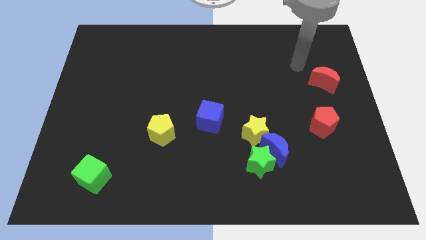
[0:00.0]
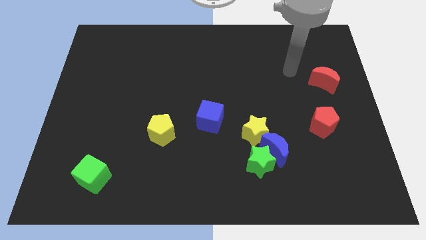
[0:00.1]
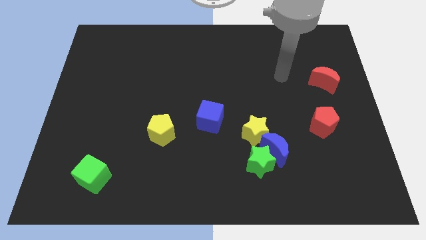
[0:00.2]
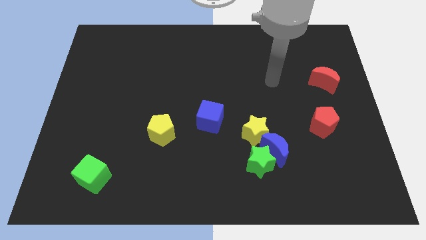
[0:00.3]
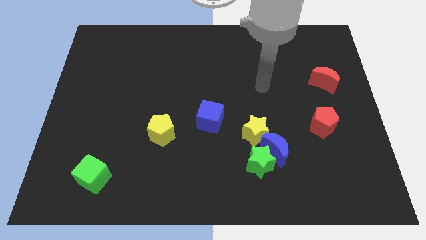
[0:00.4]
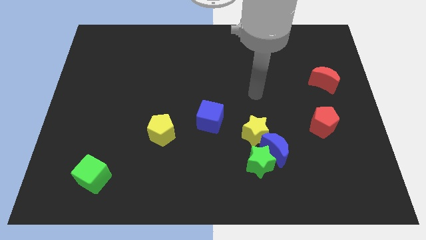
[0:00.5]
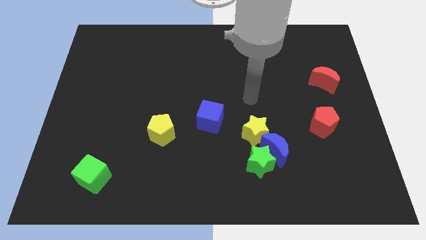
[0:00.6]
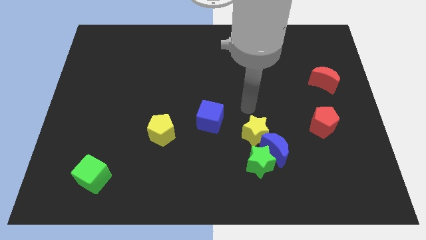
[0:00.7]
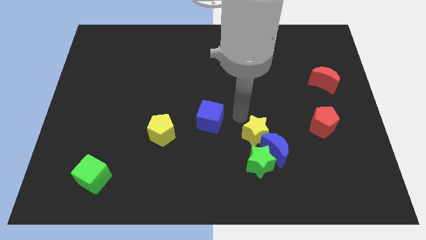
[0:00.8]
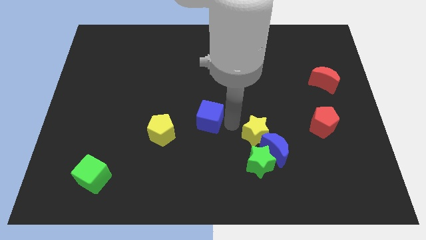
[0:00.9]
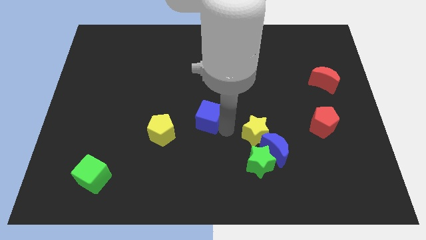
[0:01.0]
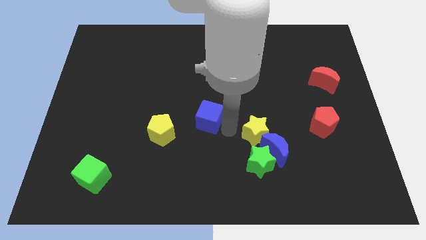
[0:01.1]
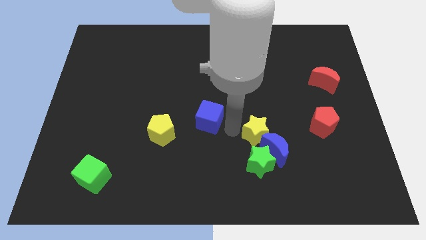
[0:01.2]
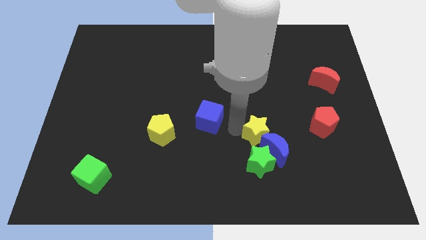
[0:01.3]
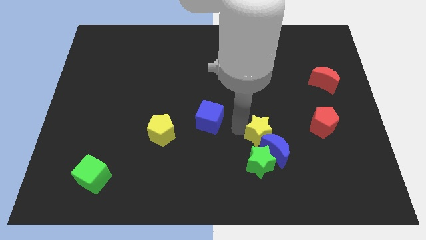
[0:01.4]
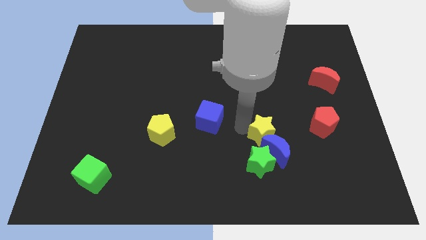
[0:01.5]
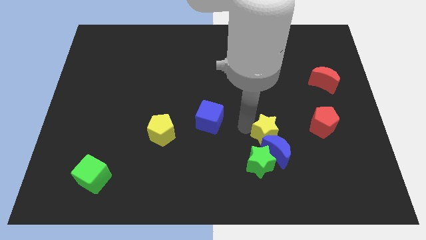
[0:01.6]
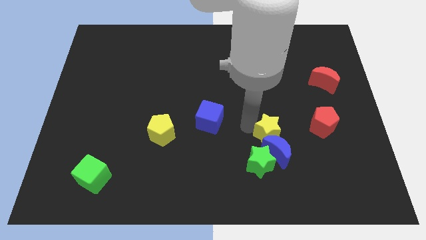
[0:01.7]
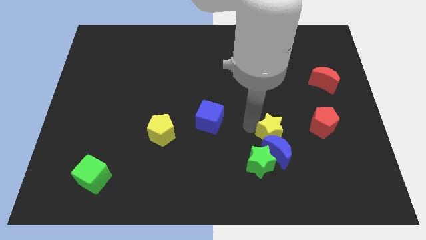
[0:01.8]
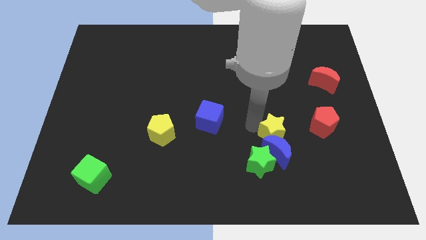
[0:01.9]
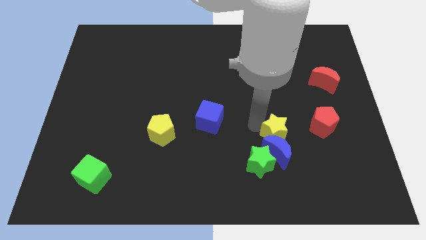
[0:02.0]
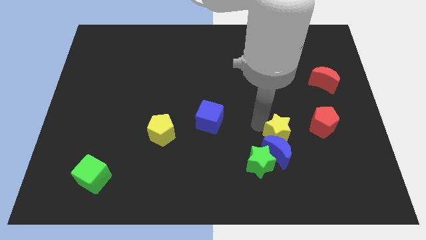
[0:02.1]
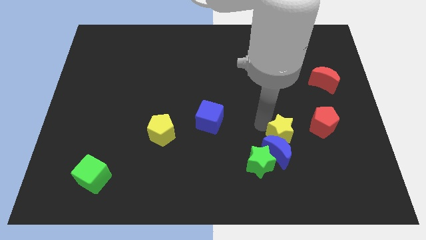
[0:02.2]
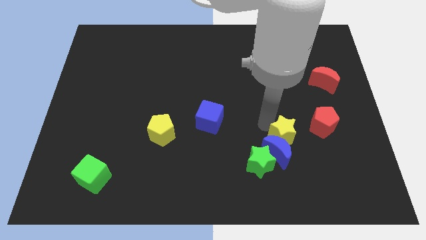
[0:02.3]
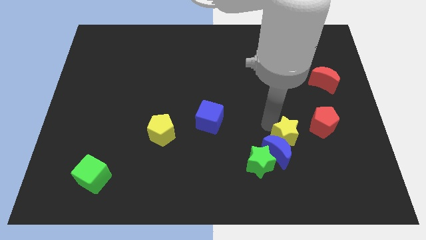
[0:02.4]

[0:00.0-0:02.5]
push the yellow star to the right a bit

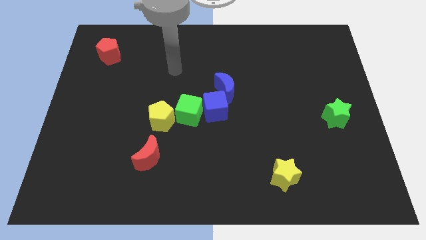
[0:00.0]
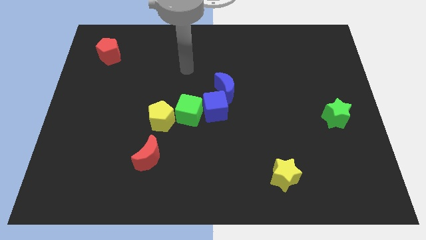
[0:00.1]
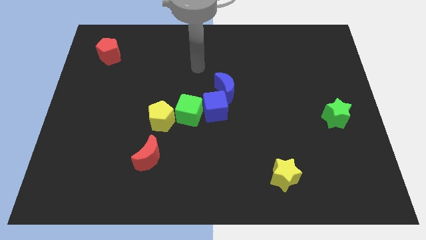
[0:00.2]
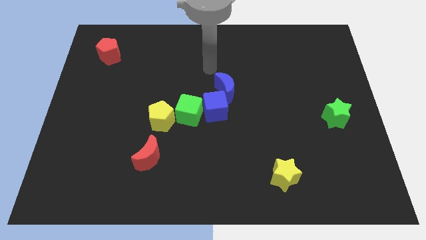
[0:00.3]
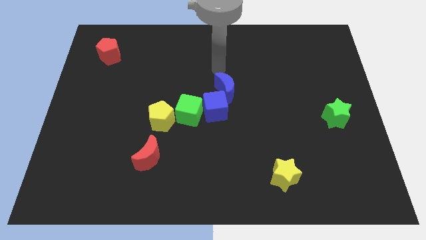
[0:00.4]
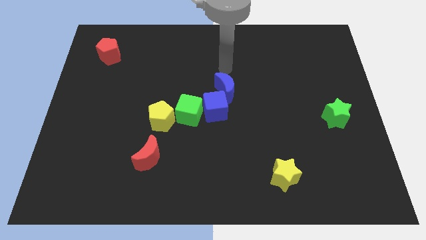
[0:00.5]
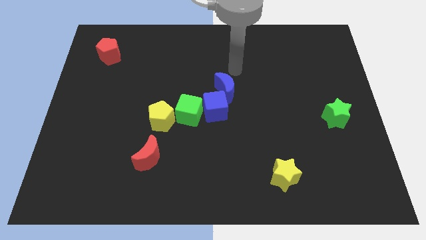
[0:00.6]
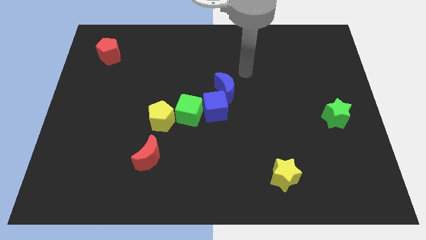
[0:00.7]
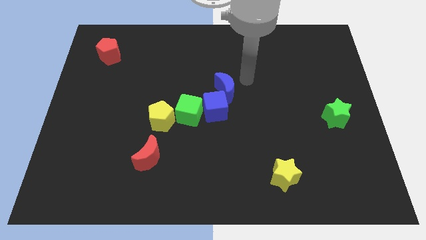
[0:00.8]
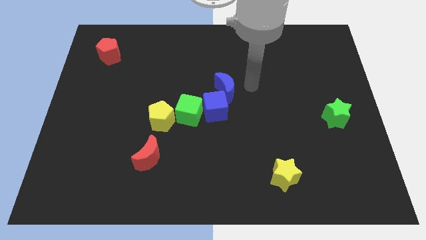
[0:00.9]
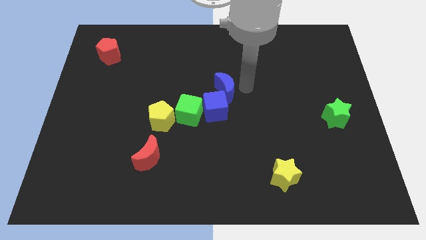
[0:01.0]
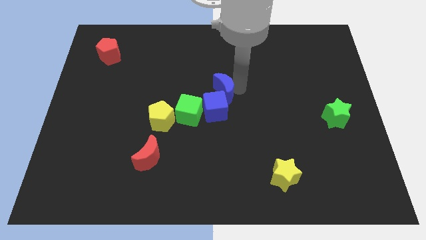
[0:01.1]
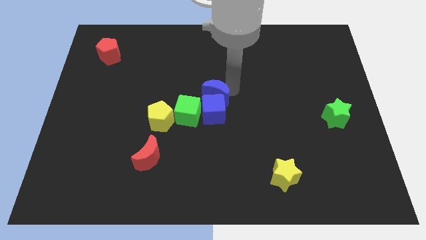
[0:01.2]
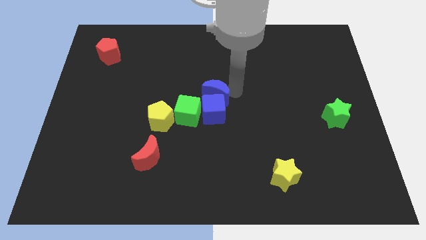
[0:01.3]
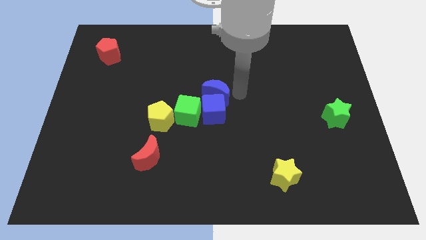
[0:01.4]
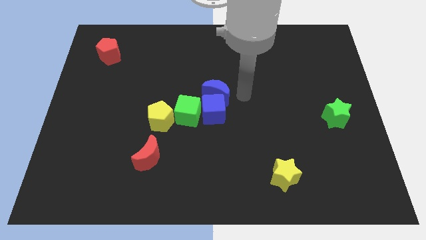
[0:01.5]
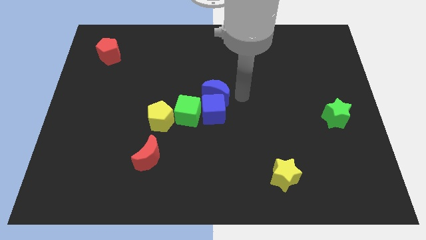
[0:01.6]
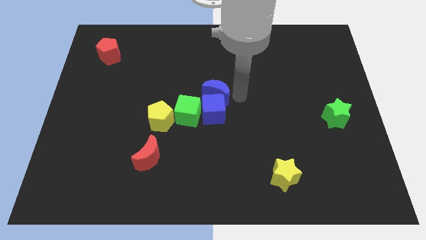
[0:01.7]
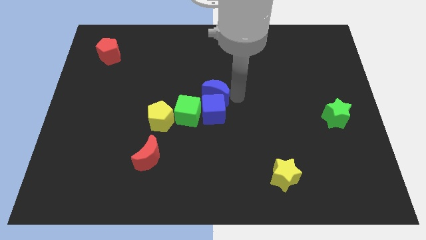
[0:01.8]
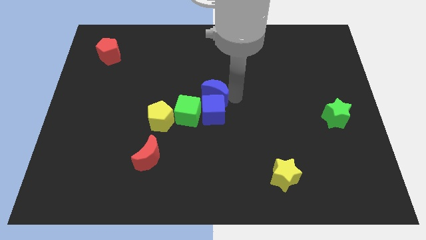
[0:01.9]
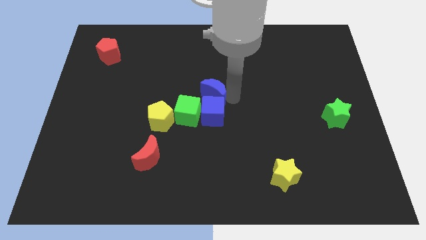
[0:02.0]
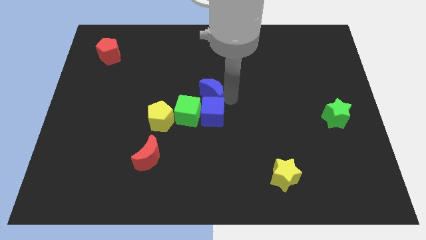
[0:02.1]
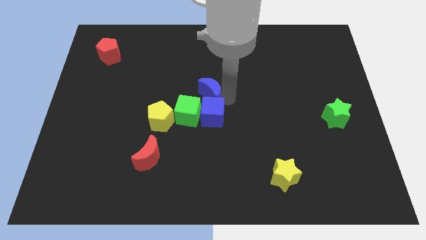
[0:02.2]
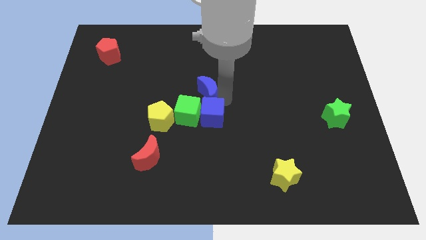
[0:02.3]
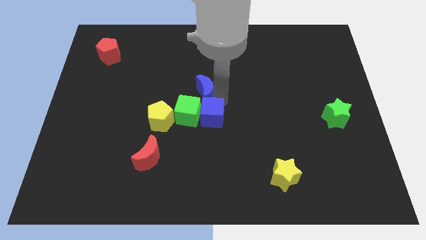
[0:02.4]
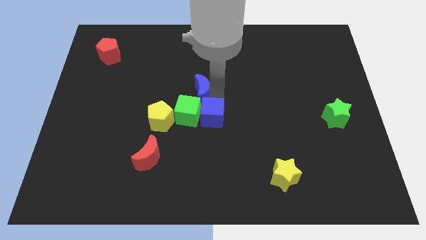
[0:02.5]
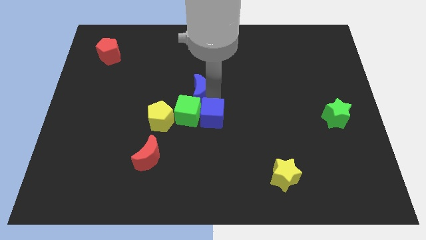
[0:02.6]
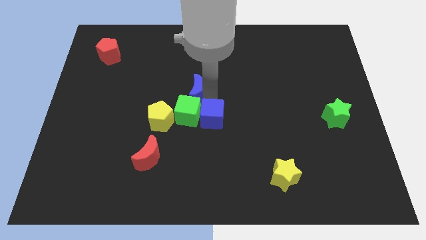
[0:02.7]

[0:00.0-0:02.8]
slide the blue moon a little bit to the left

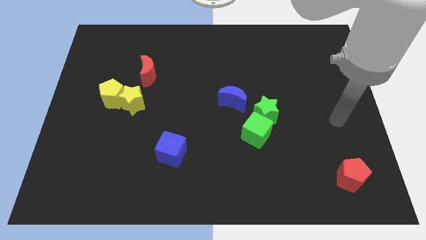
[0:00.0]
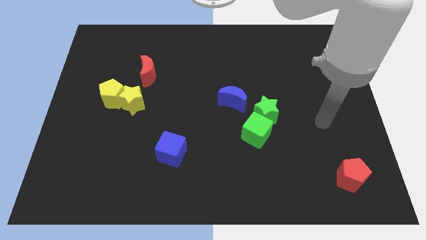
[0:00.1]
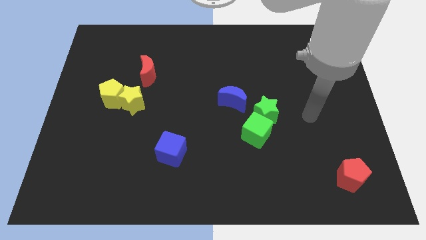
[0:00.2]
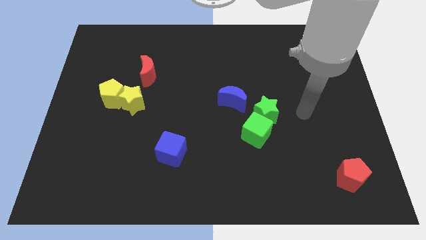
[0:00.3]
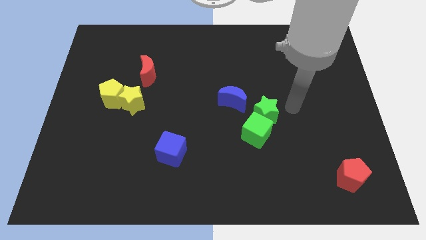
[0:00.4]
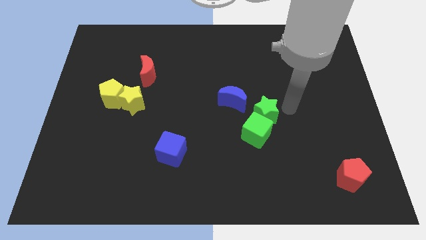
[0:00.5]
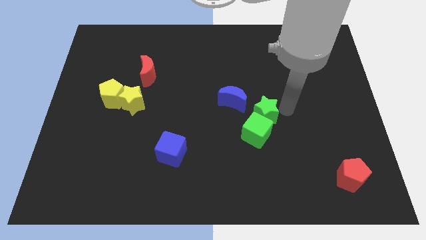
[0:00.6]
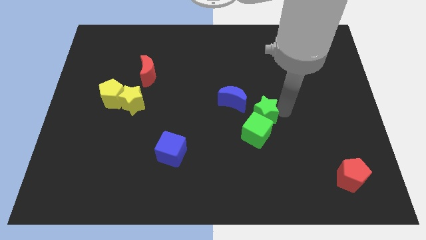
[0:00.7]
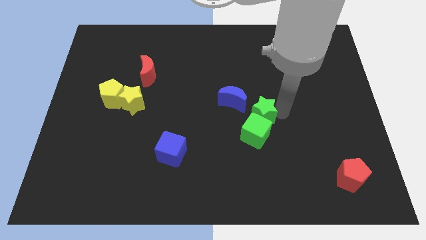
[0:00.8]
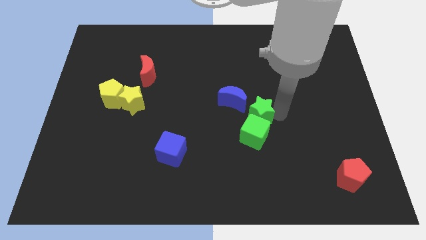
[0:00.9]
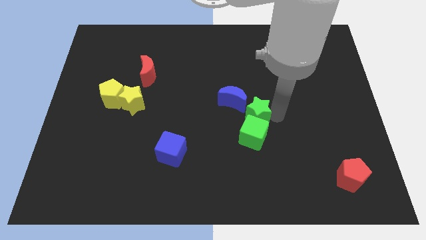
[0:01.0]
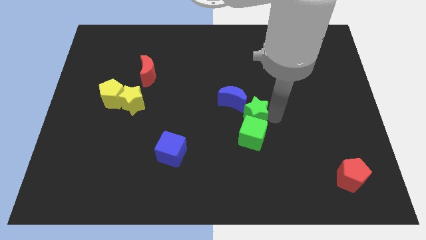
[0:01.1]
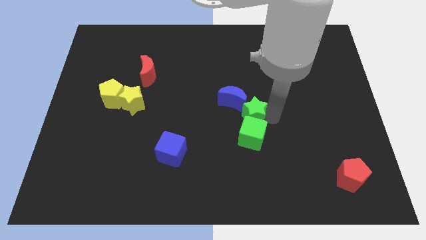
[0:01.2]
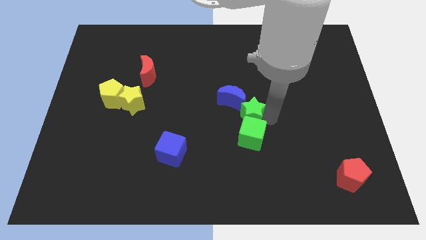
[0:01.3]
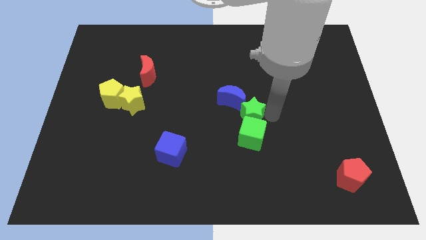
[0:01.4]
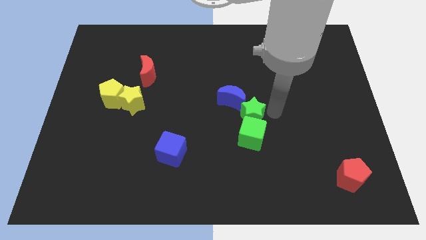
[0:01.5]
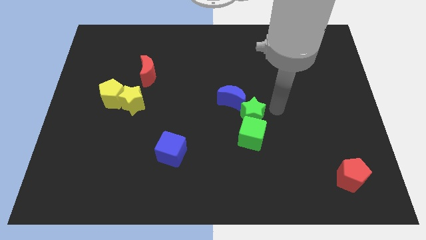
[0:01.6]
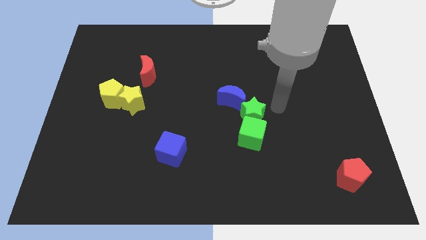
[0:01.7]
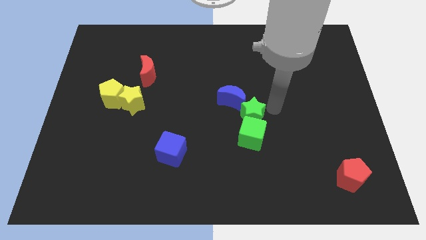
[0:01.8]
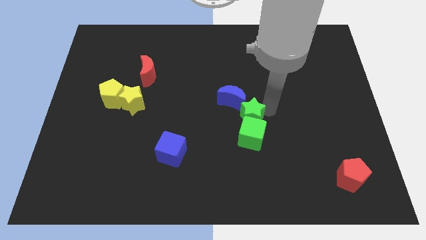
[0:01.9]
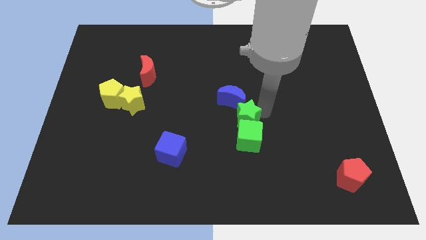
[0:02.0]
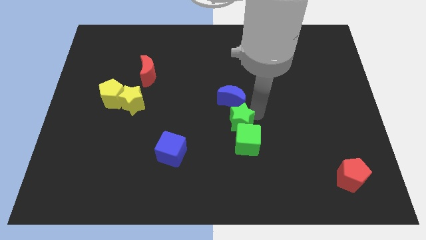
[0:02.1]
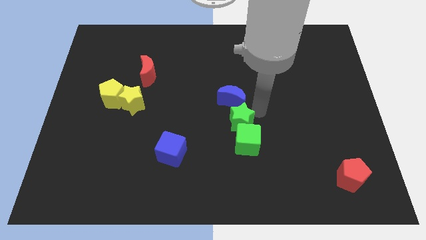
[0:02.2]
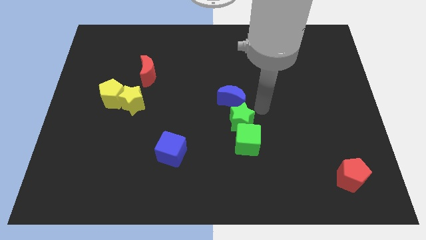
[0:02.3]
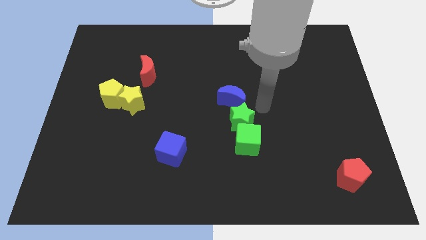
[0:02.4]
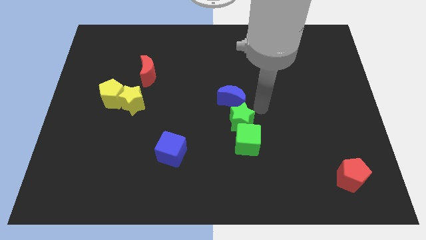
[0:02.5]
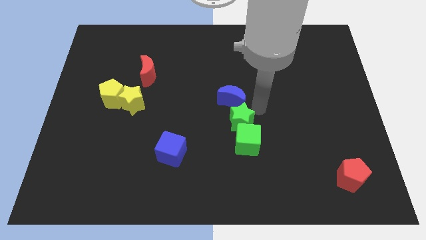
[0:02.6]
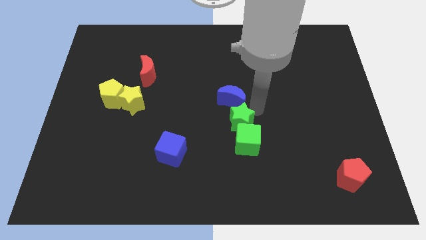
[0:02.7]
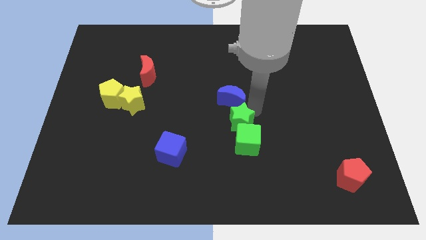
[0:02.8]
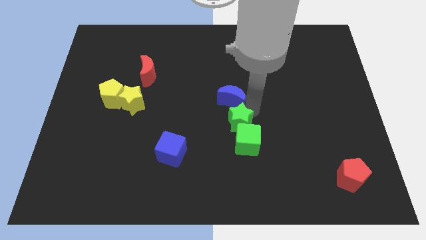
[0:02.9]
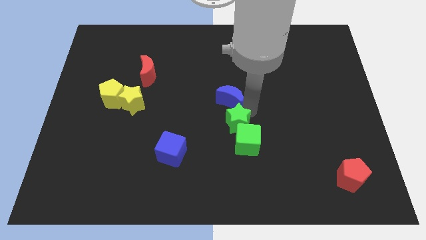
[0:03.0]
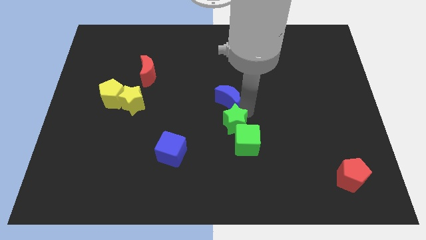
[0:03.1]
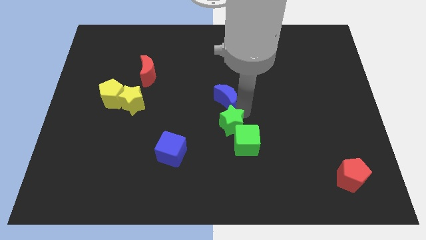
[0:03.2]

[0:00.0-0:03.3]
slightly push the green star downwards and left diagonally
